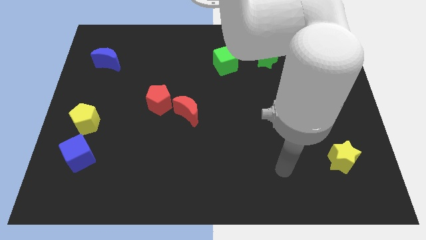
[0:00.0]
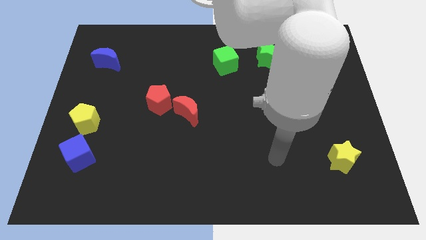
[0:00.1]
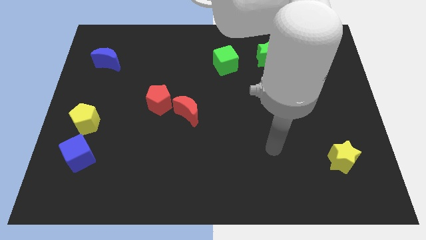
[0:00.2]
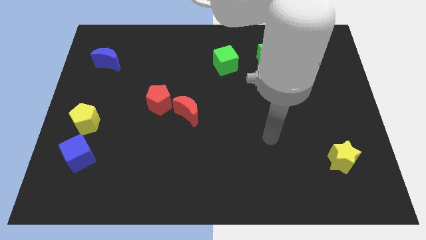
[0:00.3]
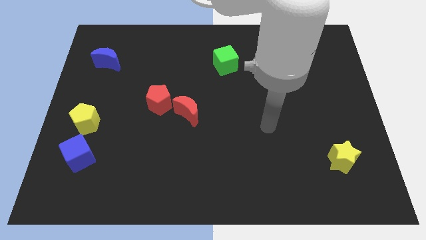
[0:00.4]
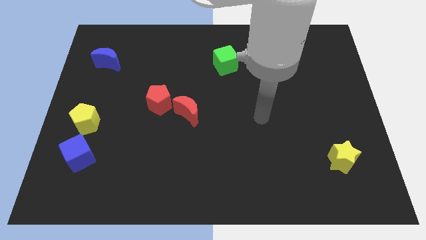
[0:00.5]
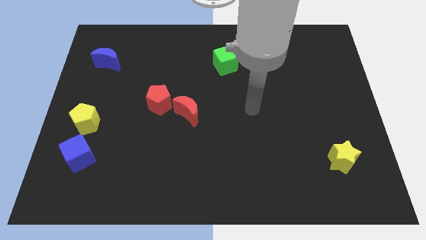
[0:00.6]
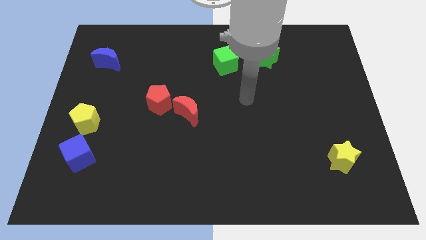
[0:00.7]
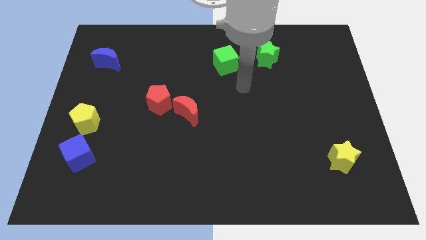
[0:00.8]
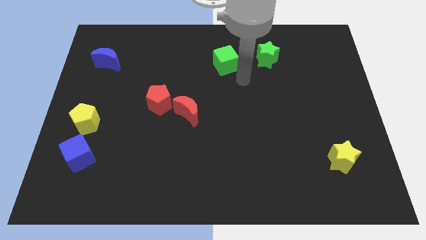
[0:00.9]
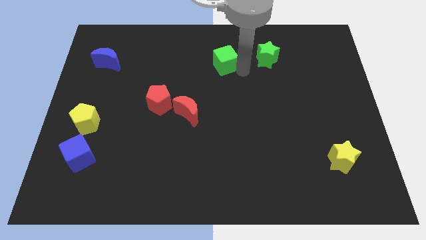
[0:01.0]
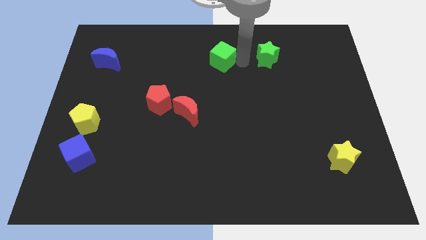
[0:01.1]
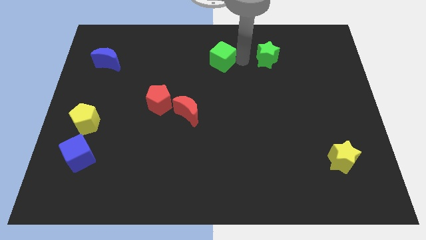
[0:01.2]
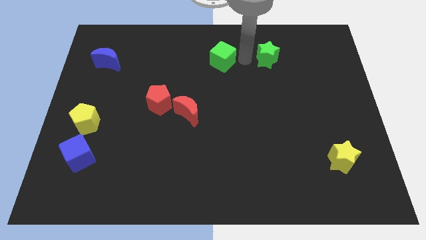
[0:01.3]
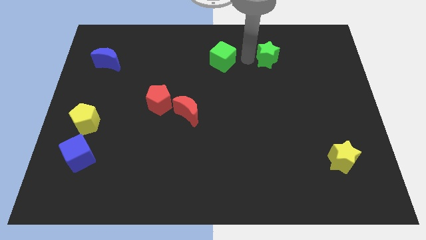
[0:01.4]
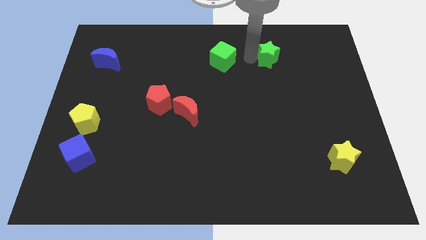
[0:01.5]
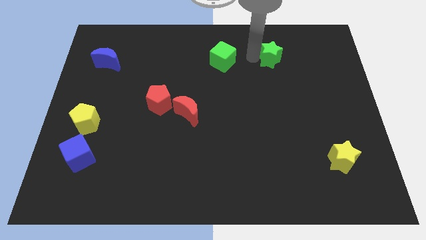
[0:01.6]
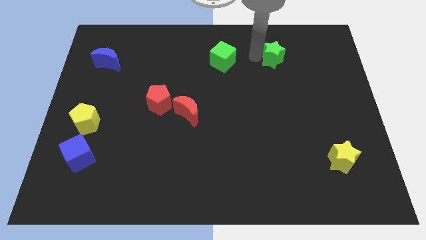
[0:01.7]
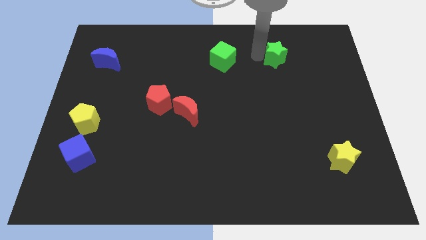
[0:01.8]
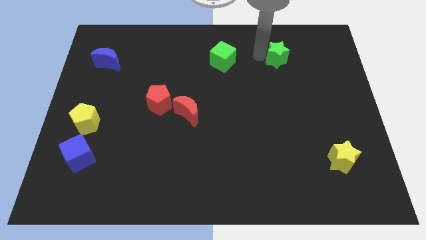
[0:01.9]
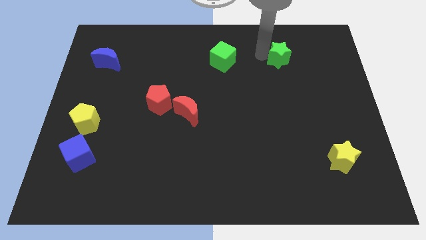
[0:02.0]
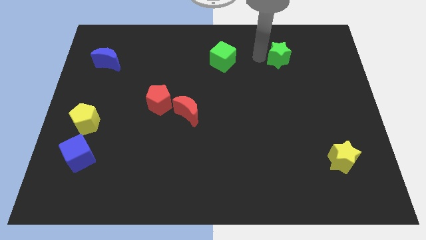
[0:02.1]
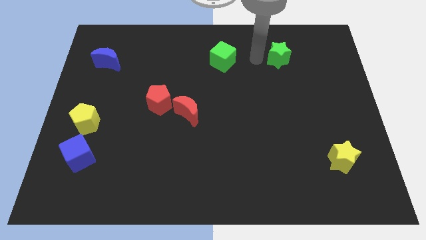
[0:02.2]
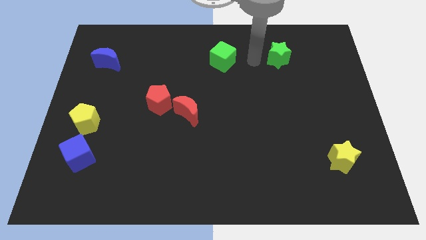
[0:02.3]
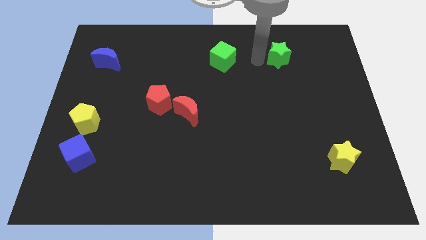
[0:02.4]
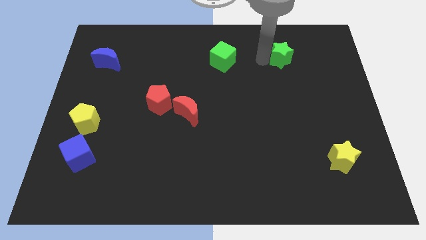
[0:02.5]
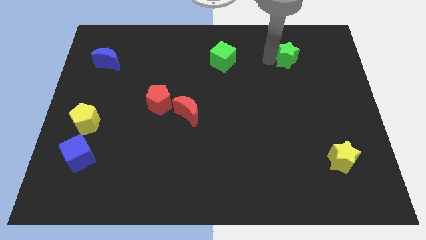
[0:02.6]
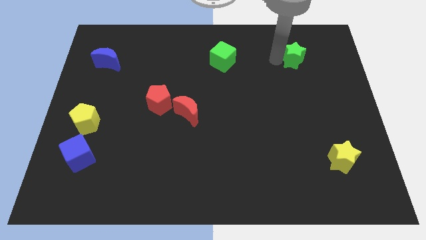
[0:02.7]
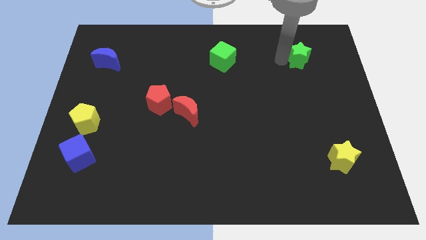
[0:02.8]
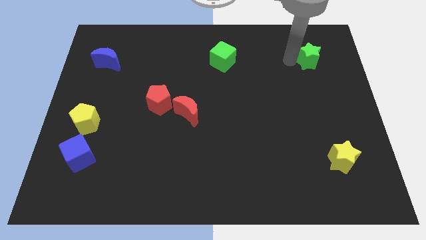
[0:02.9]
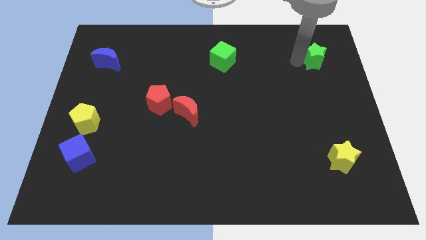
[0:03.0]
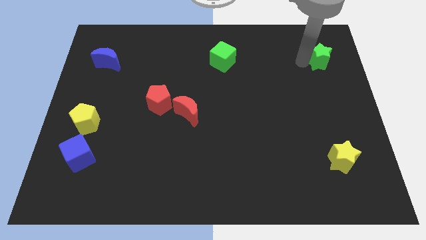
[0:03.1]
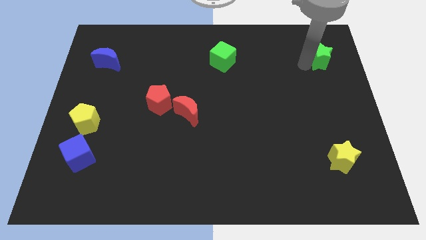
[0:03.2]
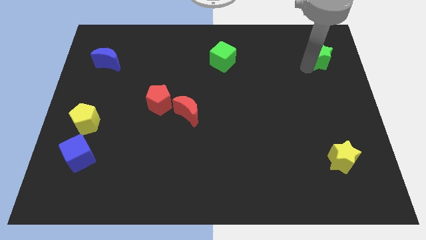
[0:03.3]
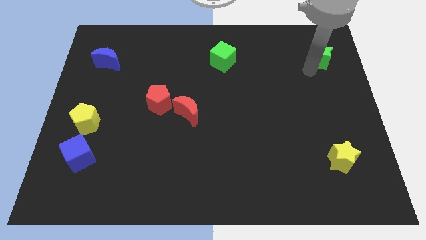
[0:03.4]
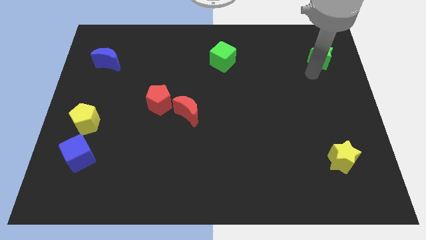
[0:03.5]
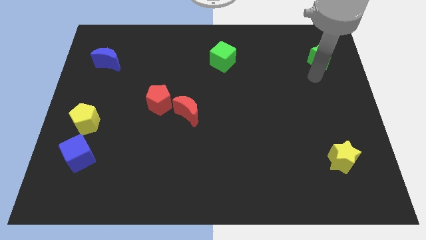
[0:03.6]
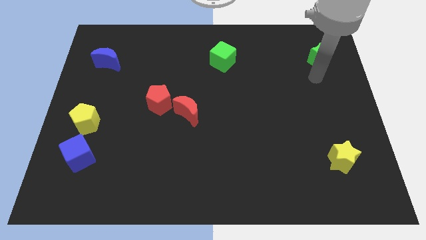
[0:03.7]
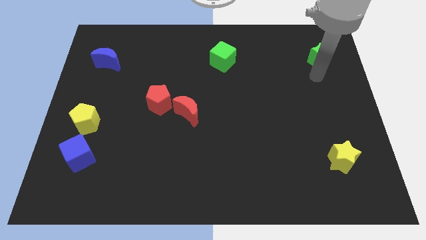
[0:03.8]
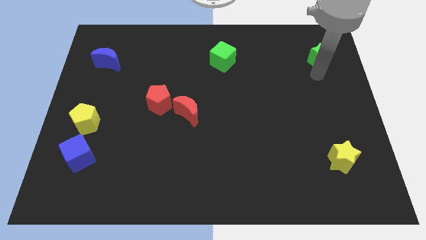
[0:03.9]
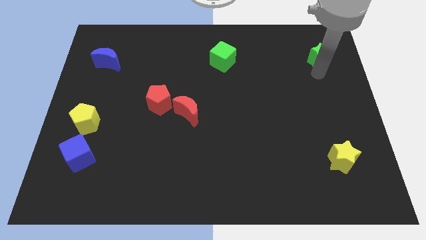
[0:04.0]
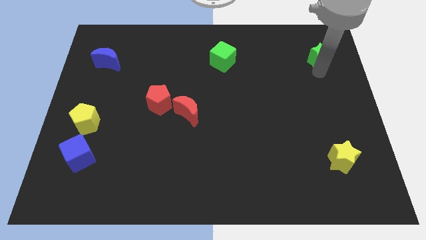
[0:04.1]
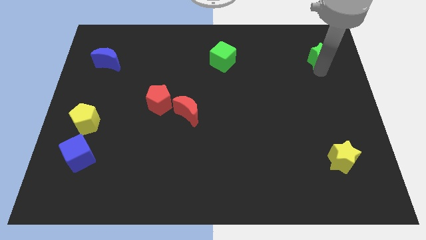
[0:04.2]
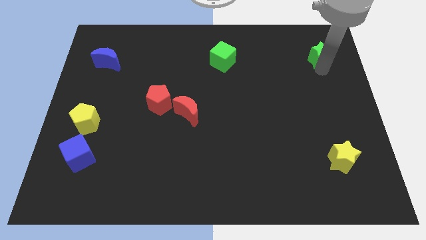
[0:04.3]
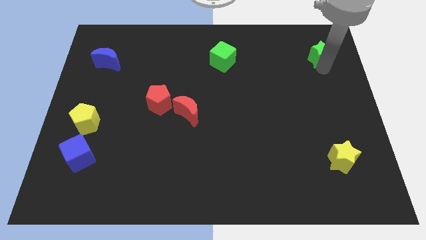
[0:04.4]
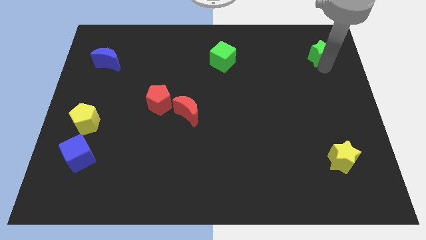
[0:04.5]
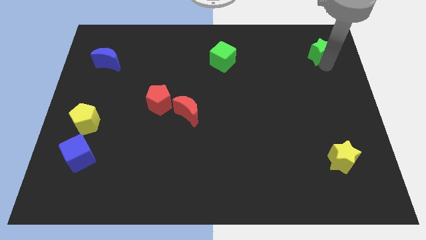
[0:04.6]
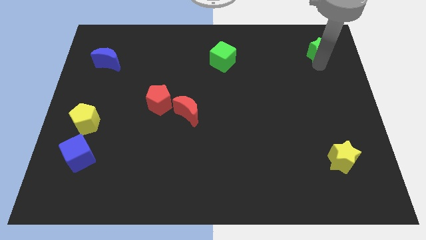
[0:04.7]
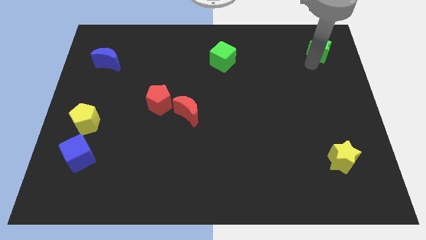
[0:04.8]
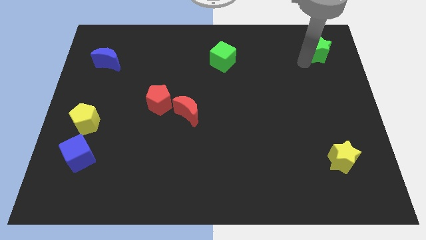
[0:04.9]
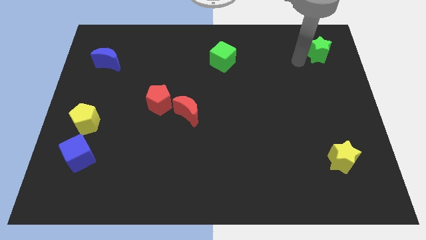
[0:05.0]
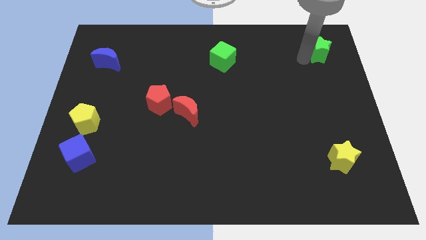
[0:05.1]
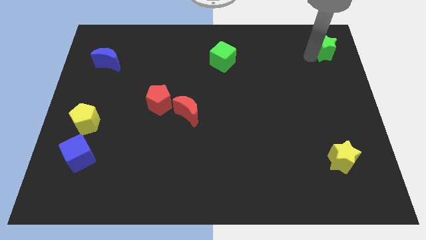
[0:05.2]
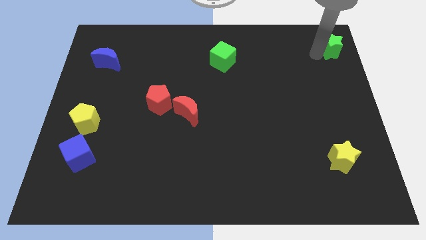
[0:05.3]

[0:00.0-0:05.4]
move the green star to the upper right corner

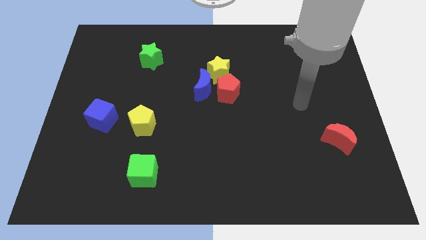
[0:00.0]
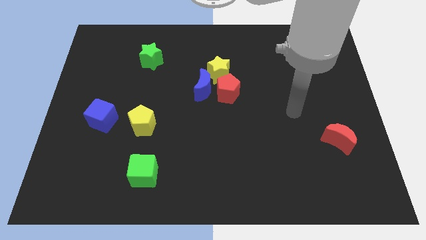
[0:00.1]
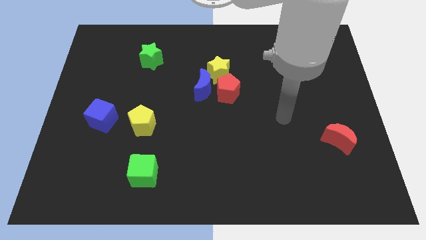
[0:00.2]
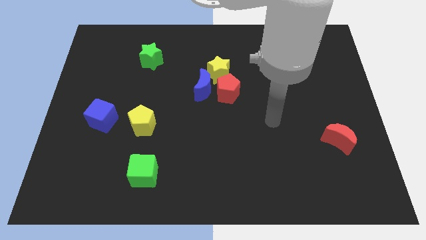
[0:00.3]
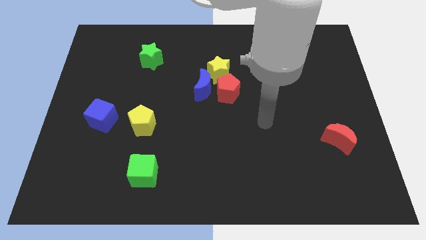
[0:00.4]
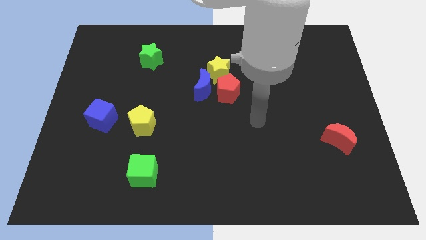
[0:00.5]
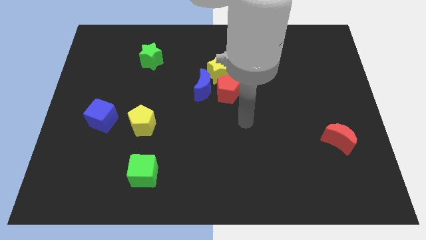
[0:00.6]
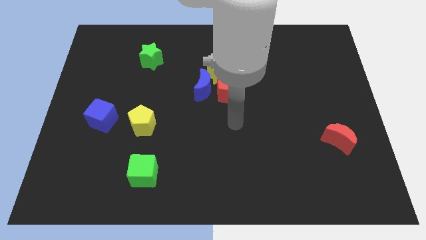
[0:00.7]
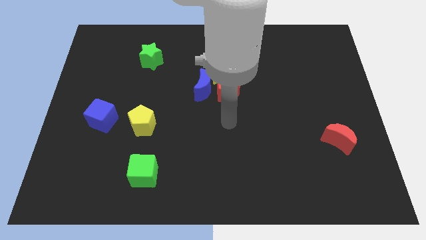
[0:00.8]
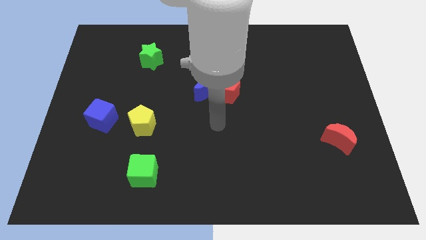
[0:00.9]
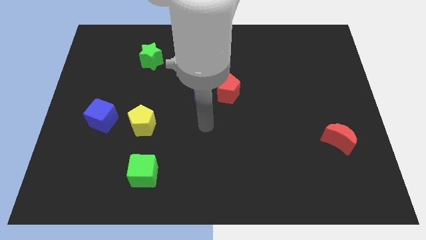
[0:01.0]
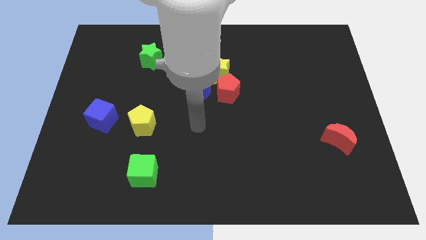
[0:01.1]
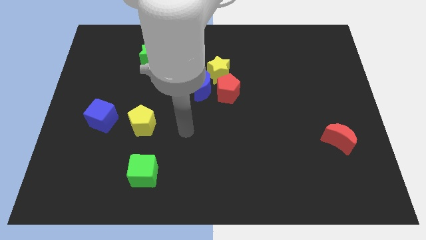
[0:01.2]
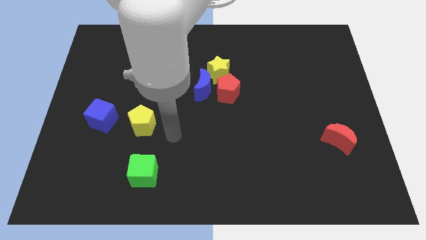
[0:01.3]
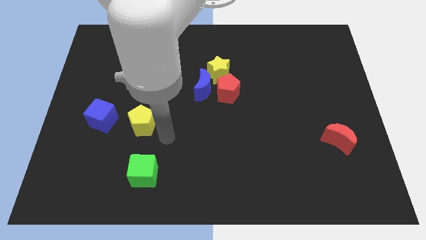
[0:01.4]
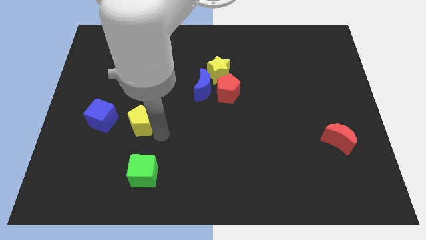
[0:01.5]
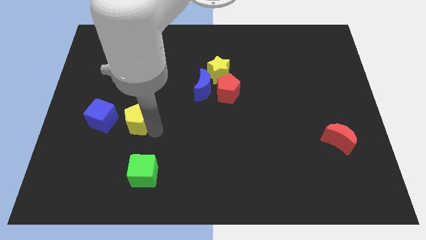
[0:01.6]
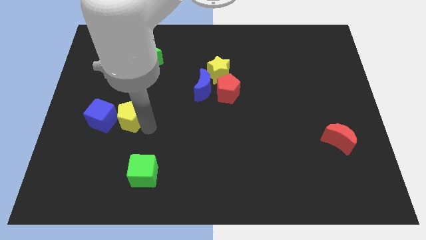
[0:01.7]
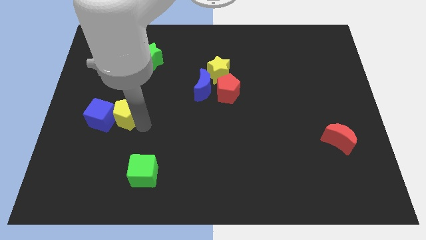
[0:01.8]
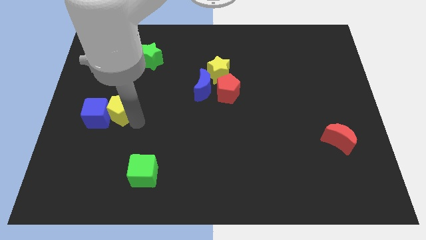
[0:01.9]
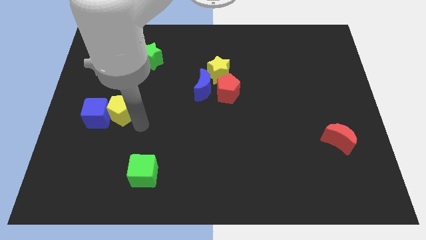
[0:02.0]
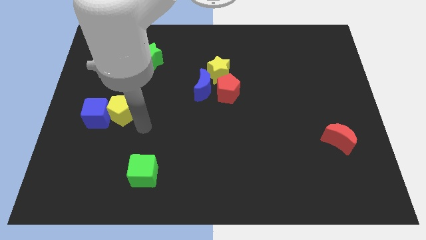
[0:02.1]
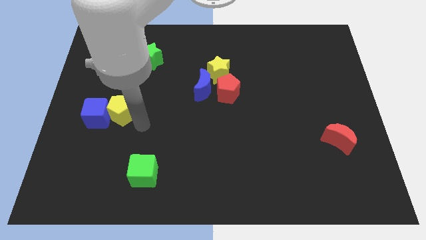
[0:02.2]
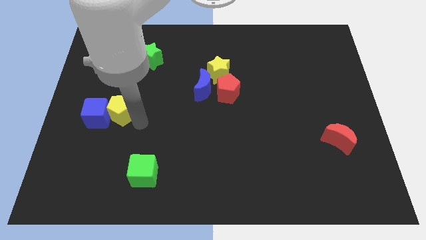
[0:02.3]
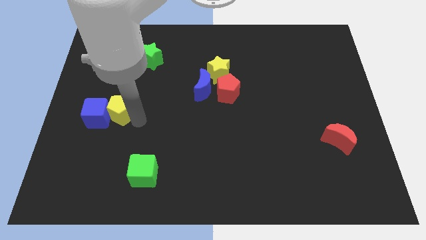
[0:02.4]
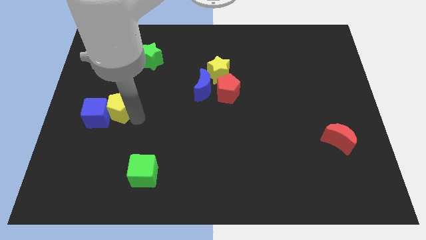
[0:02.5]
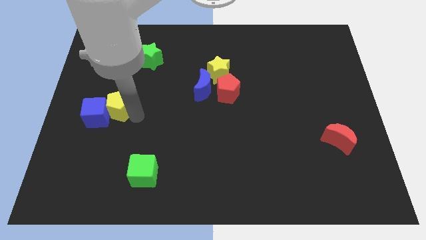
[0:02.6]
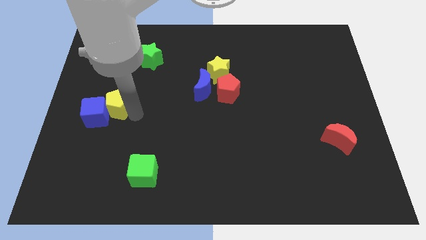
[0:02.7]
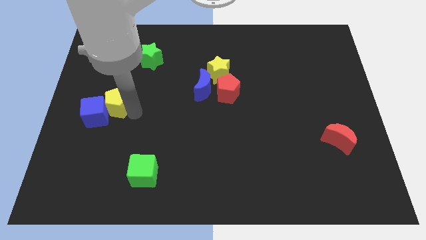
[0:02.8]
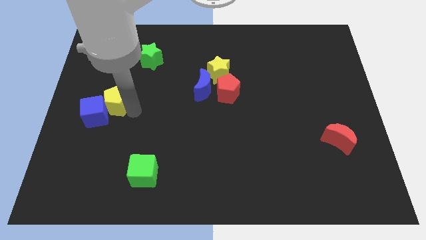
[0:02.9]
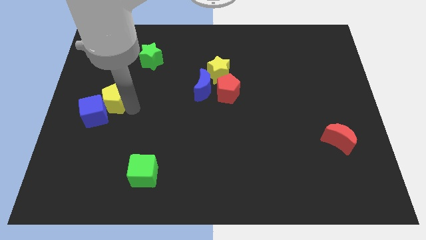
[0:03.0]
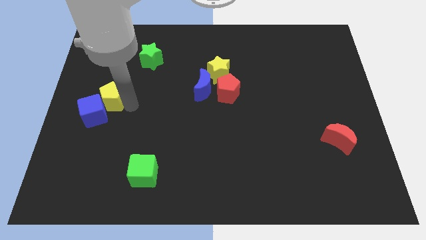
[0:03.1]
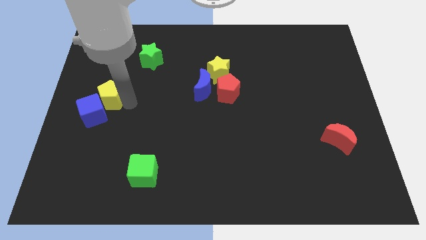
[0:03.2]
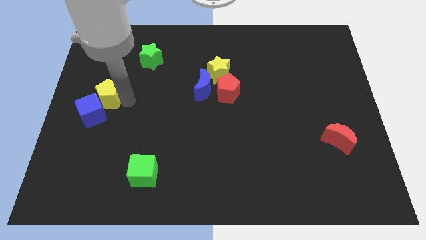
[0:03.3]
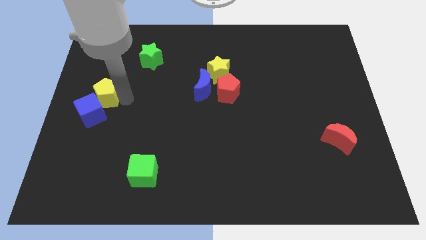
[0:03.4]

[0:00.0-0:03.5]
move the yellow pentagon to the center left
